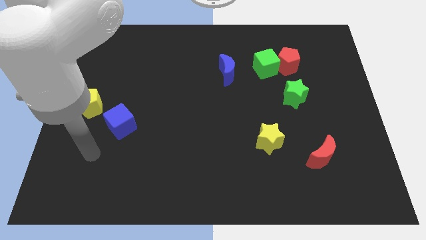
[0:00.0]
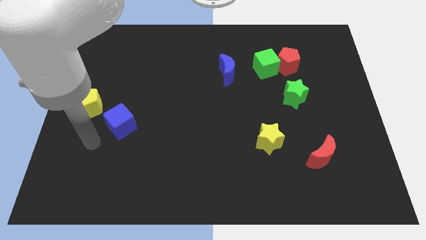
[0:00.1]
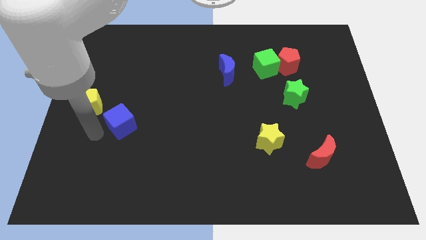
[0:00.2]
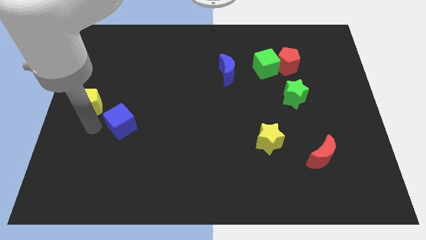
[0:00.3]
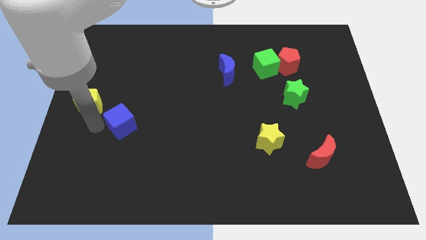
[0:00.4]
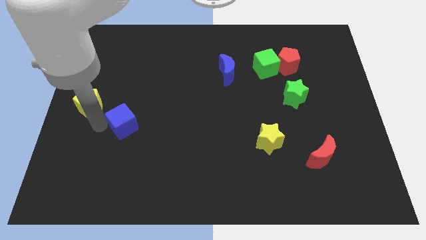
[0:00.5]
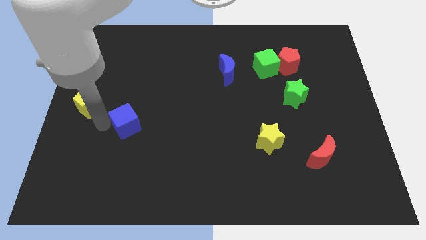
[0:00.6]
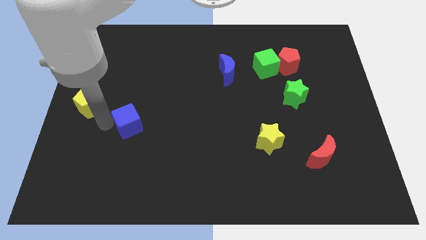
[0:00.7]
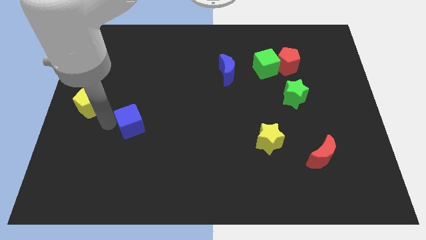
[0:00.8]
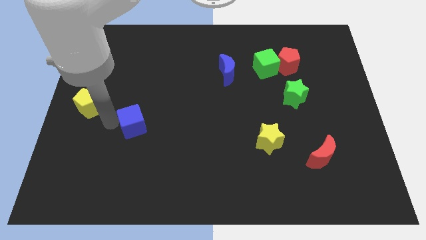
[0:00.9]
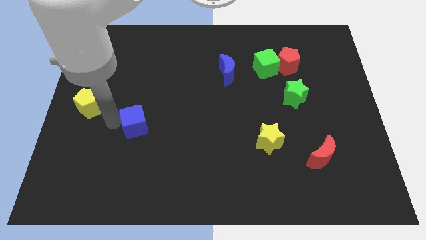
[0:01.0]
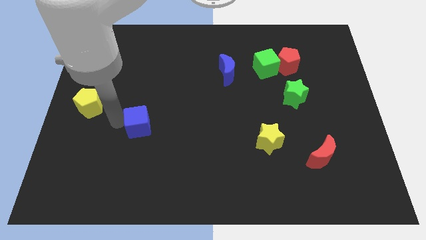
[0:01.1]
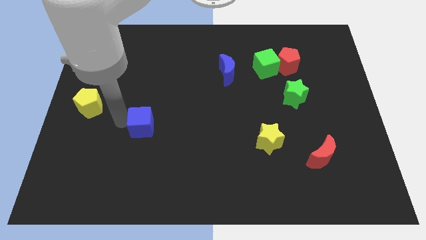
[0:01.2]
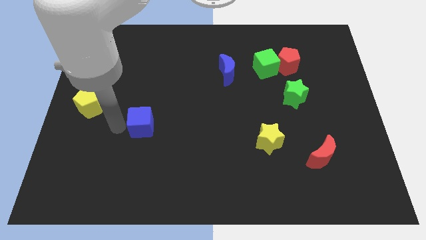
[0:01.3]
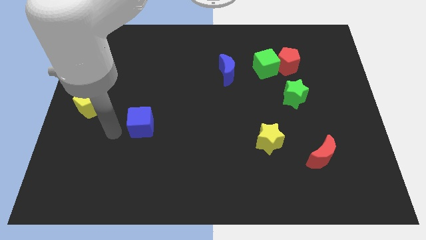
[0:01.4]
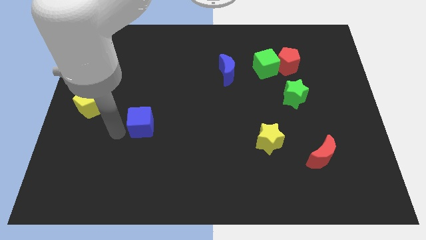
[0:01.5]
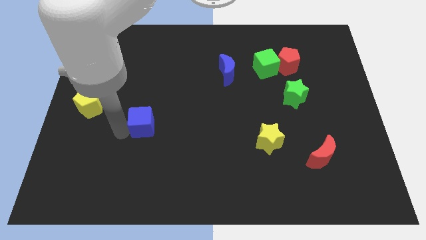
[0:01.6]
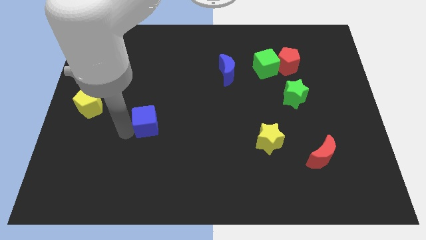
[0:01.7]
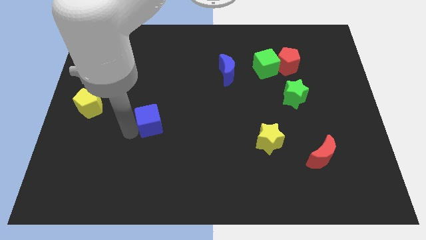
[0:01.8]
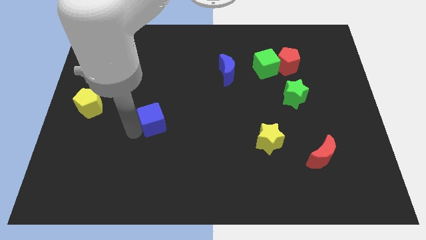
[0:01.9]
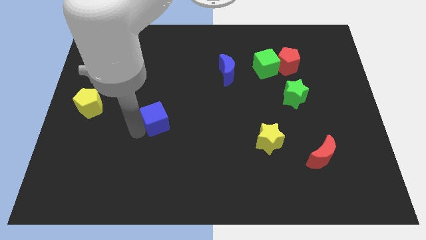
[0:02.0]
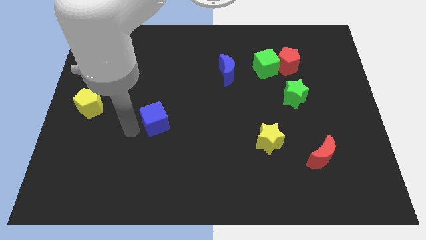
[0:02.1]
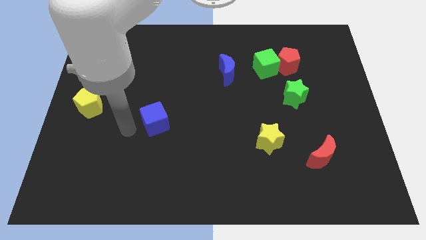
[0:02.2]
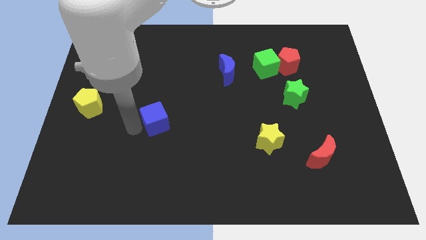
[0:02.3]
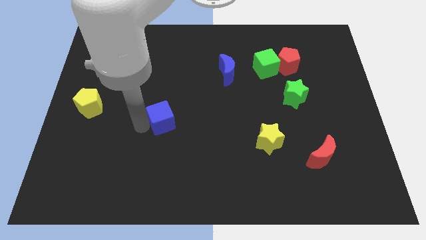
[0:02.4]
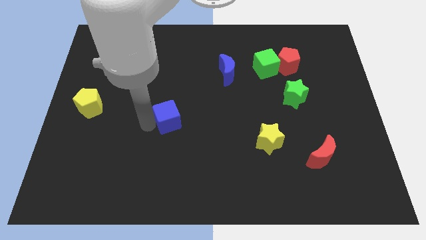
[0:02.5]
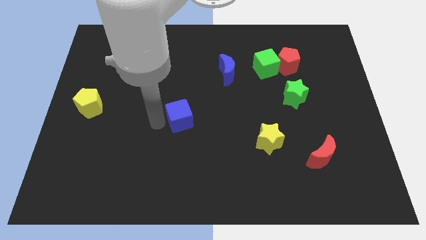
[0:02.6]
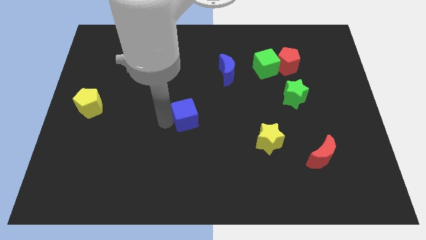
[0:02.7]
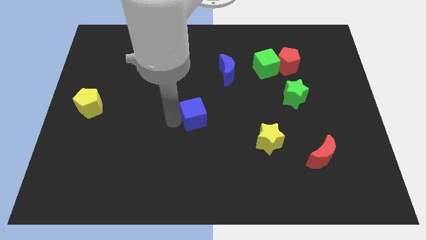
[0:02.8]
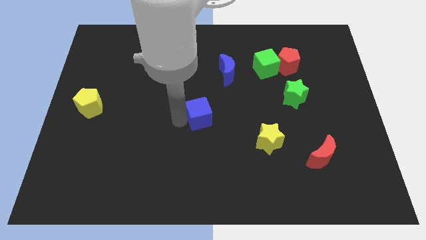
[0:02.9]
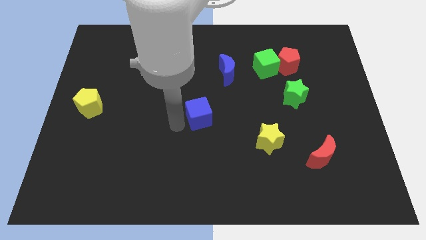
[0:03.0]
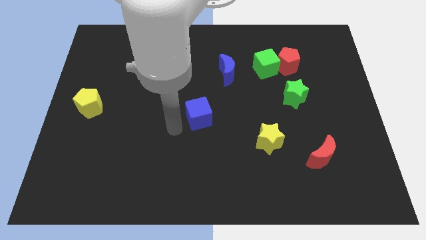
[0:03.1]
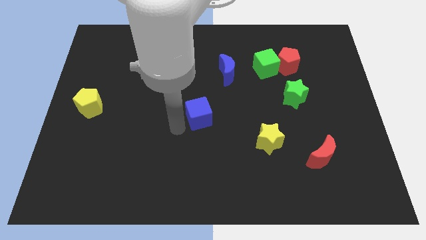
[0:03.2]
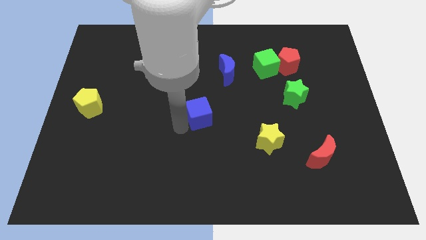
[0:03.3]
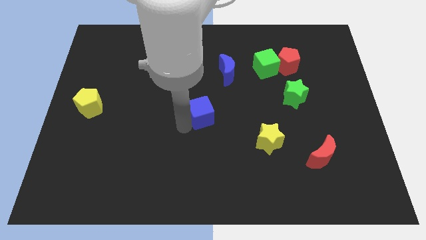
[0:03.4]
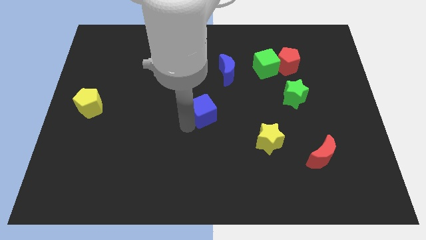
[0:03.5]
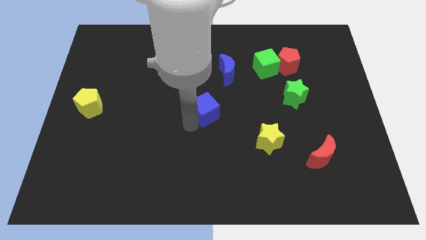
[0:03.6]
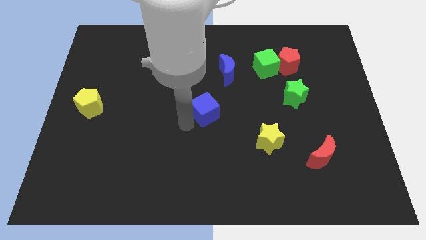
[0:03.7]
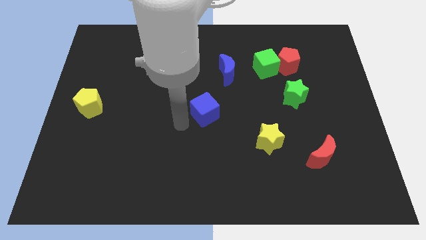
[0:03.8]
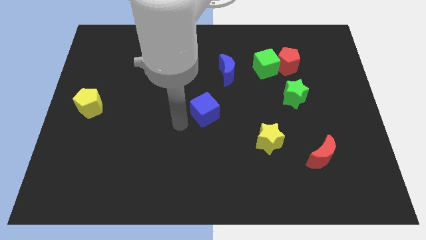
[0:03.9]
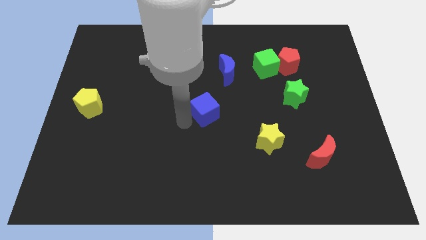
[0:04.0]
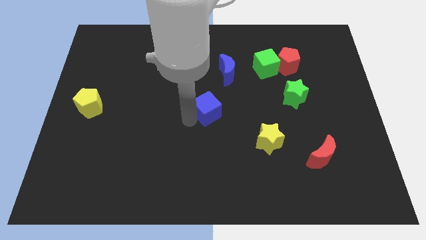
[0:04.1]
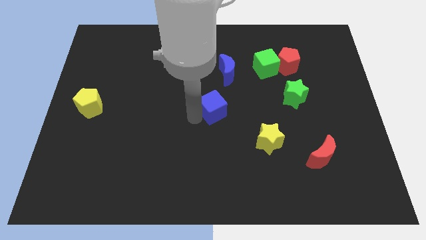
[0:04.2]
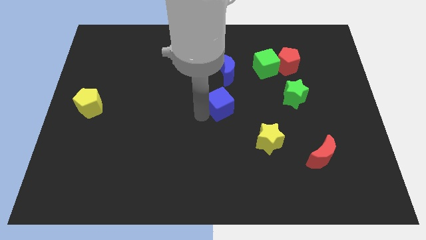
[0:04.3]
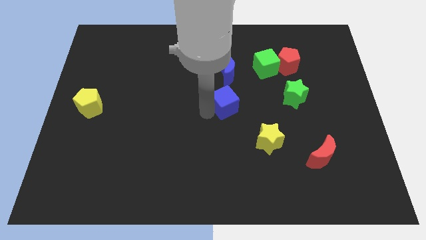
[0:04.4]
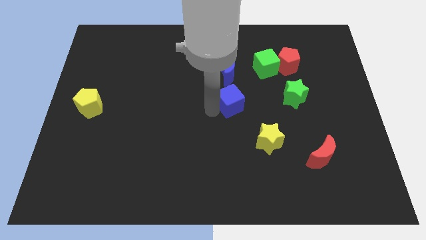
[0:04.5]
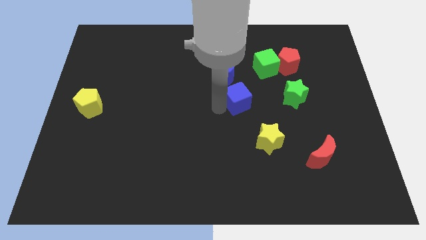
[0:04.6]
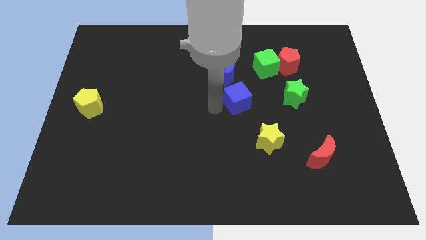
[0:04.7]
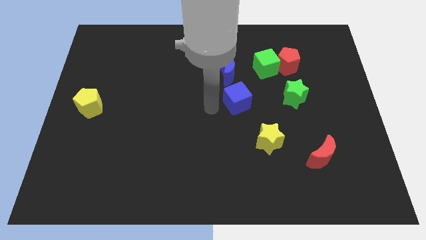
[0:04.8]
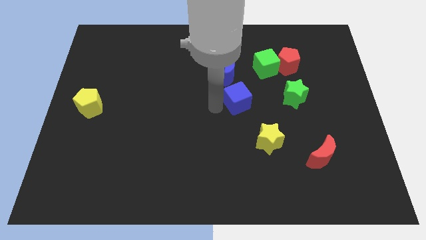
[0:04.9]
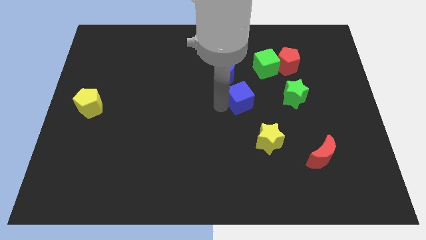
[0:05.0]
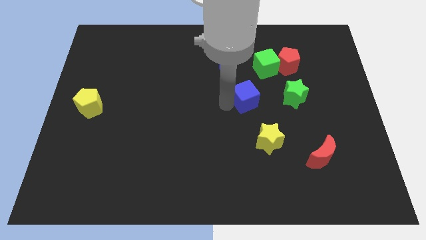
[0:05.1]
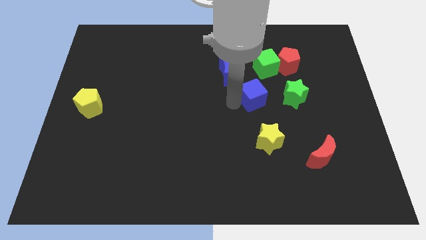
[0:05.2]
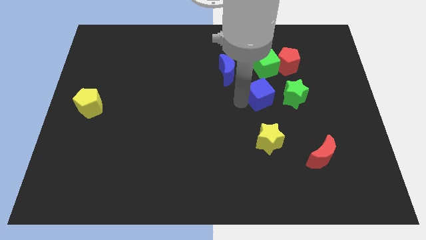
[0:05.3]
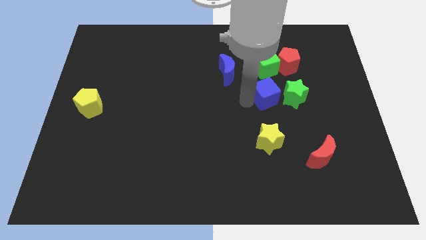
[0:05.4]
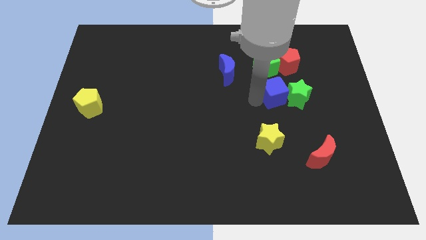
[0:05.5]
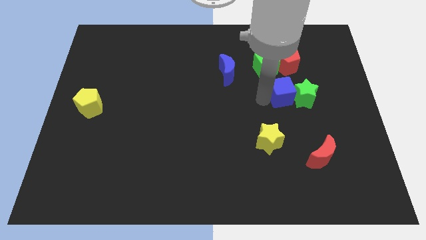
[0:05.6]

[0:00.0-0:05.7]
move the blue cube diagonally down and to the right of the green cube

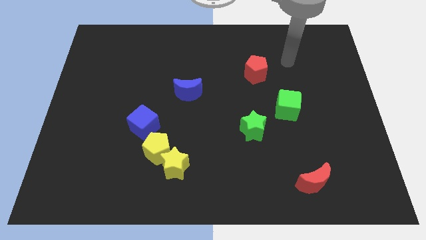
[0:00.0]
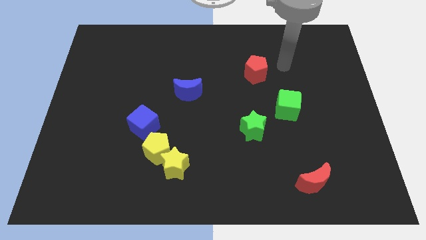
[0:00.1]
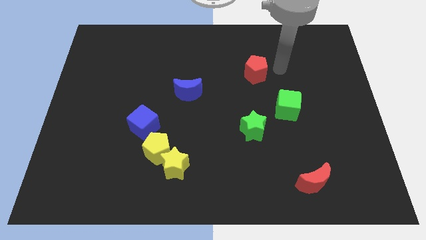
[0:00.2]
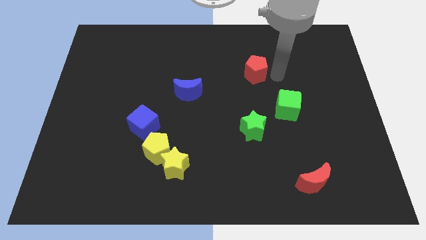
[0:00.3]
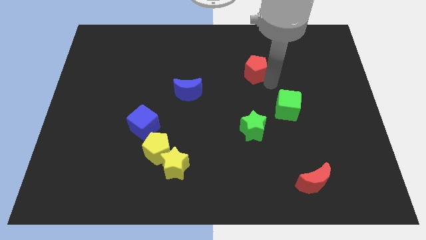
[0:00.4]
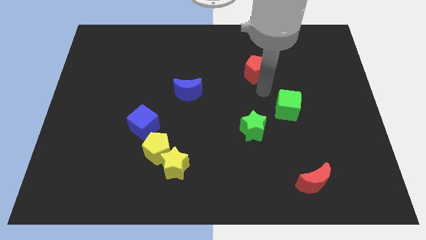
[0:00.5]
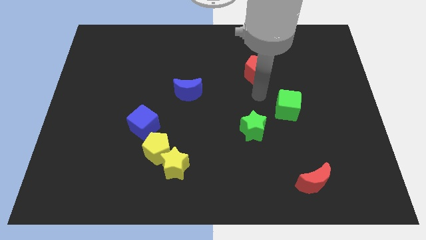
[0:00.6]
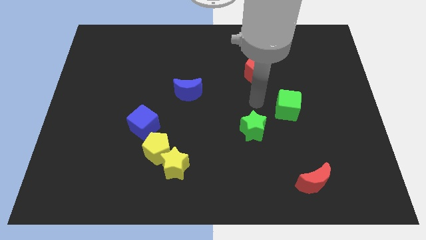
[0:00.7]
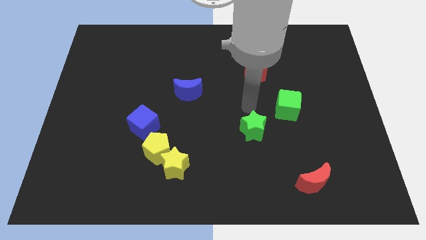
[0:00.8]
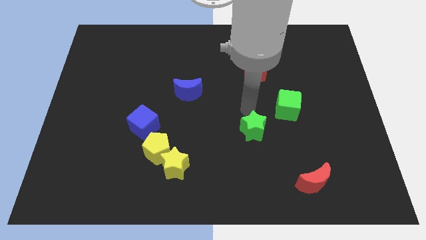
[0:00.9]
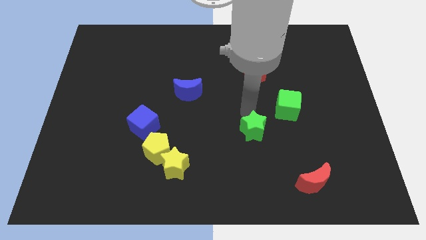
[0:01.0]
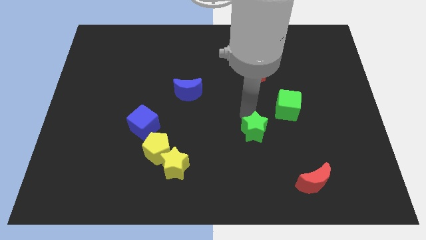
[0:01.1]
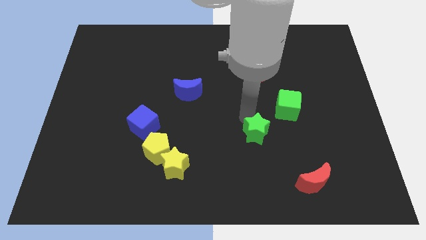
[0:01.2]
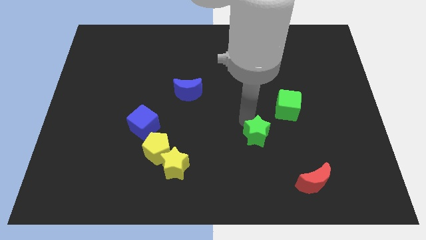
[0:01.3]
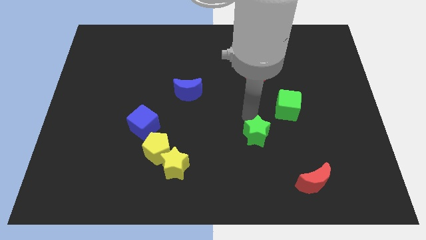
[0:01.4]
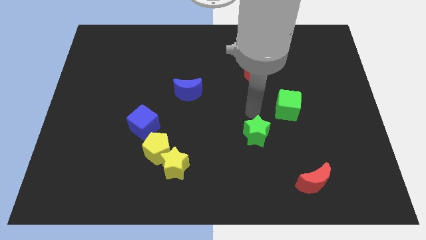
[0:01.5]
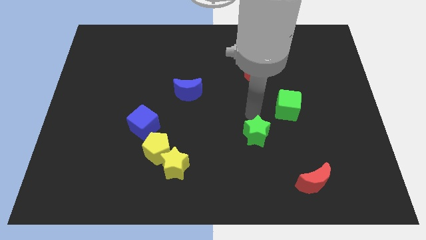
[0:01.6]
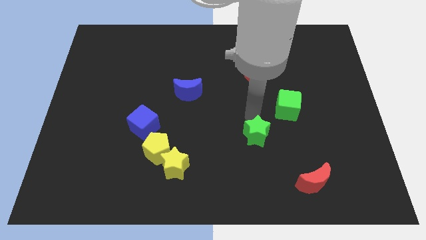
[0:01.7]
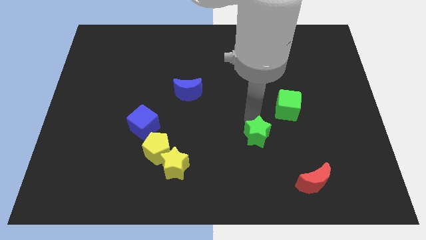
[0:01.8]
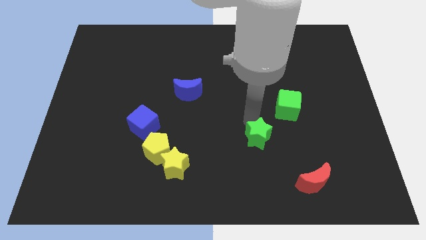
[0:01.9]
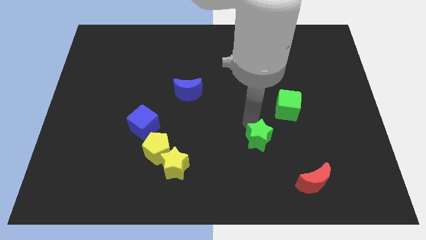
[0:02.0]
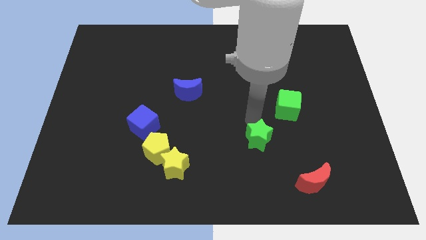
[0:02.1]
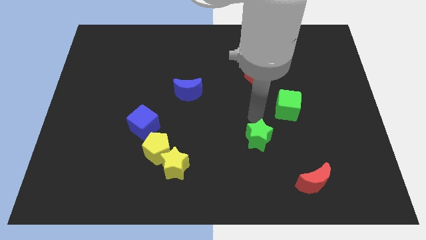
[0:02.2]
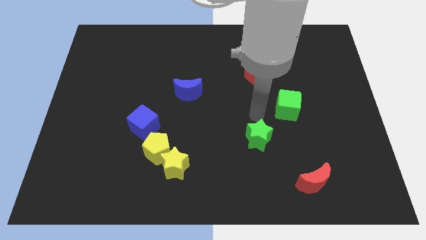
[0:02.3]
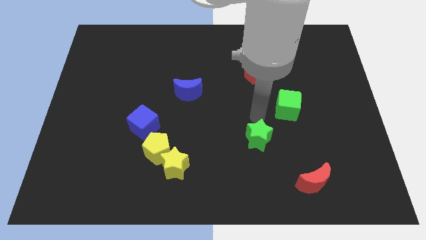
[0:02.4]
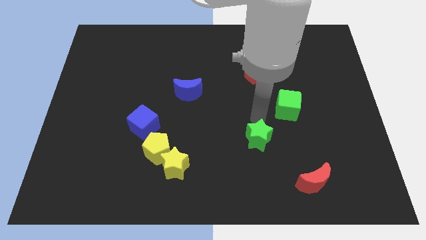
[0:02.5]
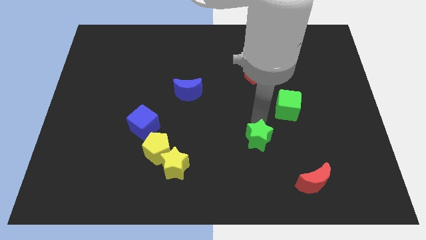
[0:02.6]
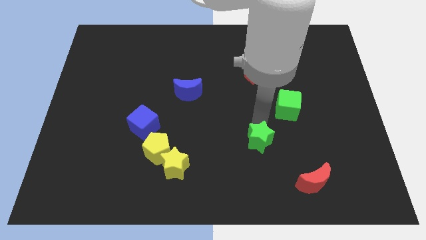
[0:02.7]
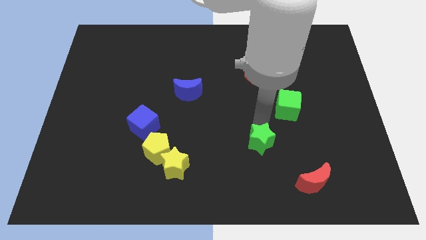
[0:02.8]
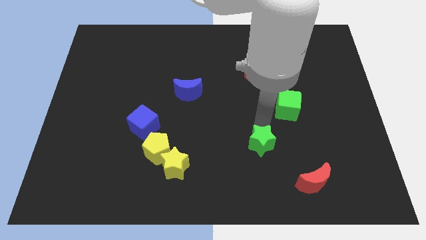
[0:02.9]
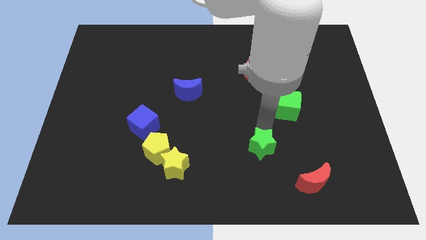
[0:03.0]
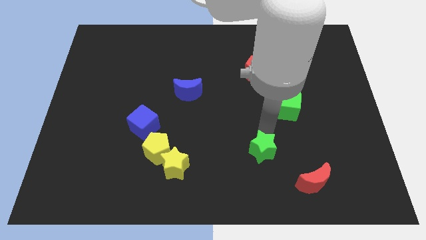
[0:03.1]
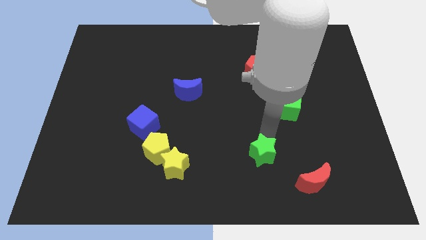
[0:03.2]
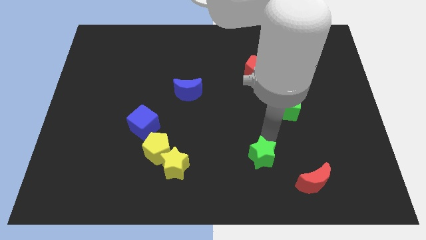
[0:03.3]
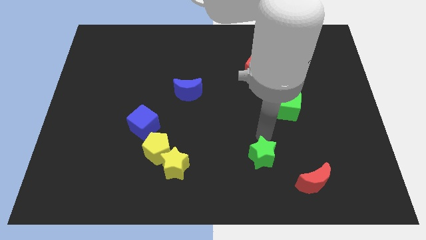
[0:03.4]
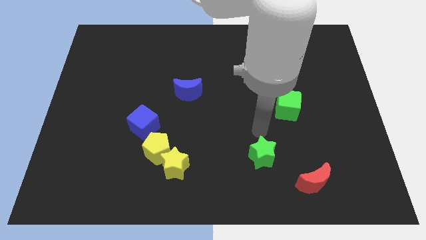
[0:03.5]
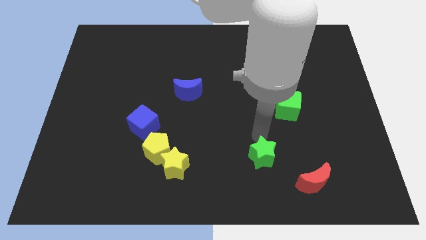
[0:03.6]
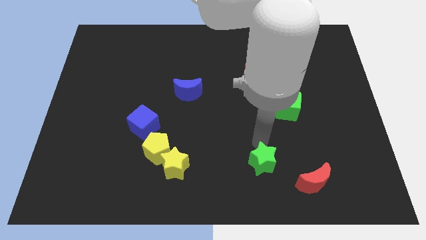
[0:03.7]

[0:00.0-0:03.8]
put the green star to the left side of the red moon
